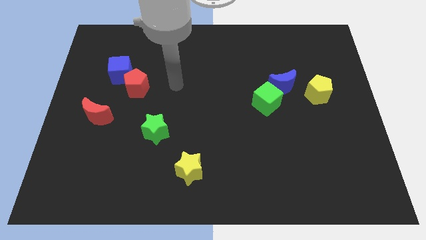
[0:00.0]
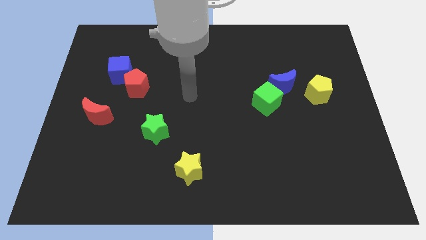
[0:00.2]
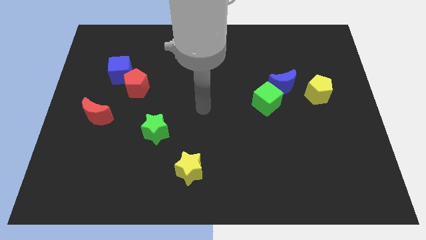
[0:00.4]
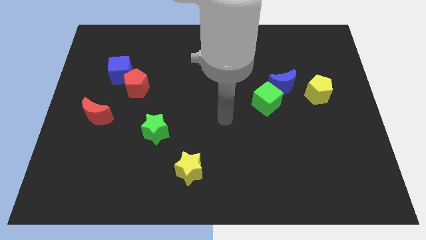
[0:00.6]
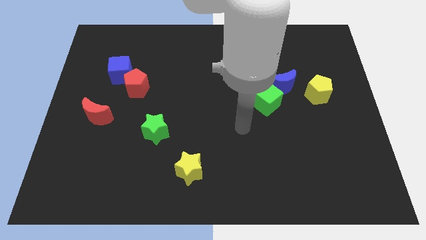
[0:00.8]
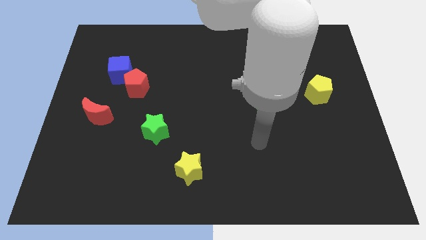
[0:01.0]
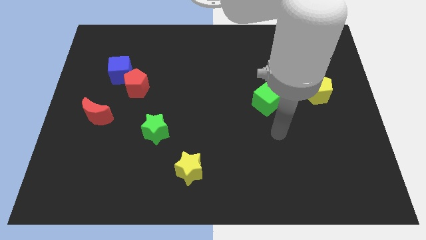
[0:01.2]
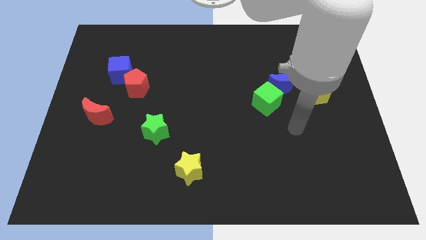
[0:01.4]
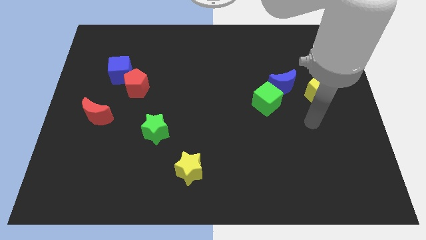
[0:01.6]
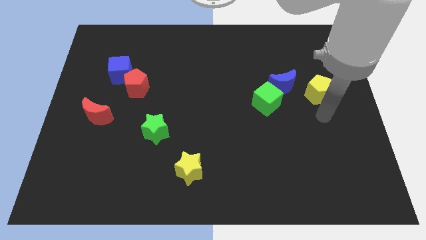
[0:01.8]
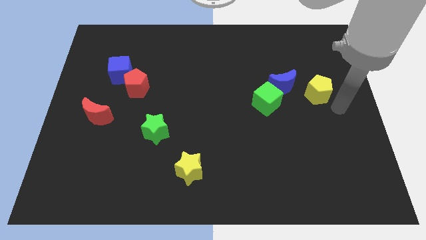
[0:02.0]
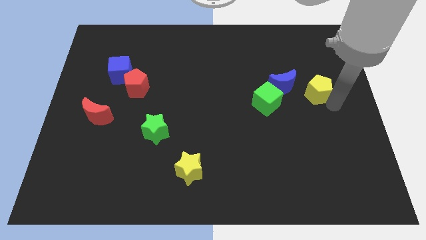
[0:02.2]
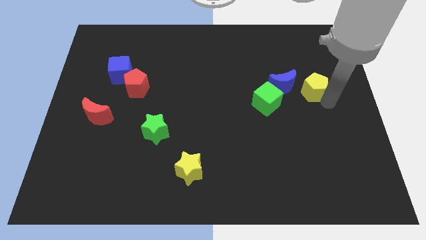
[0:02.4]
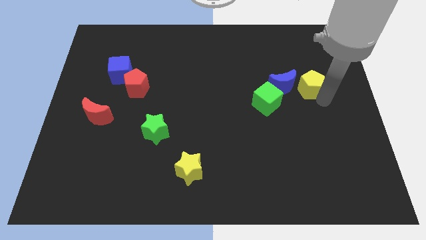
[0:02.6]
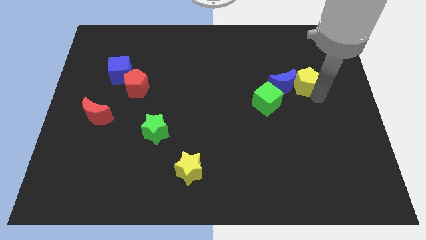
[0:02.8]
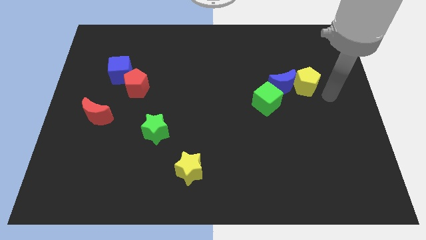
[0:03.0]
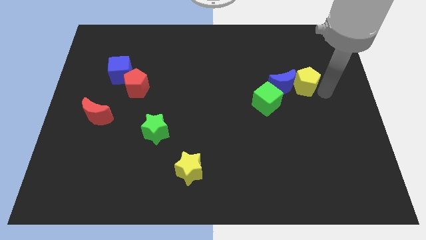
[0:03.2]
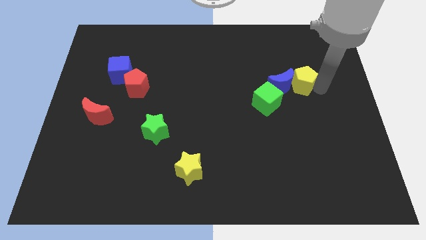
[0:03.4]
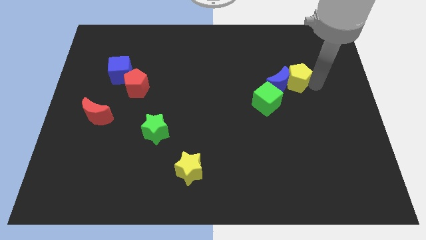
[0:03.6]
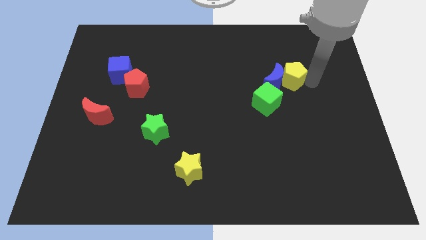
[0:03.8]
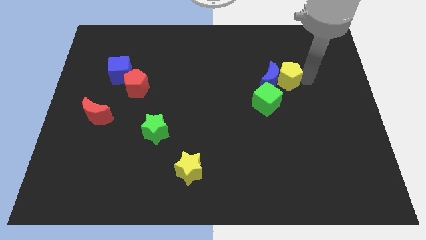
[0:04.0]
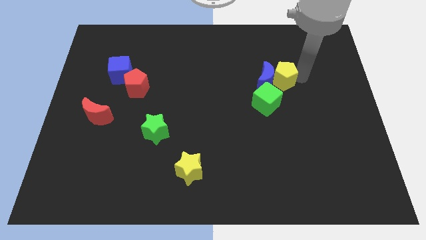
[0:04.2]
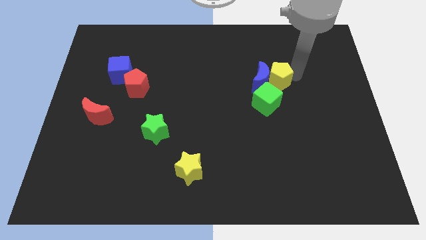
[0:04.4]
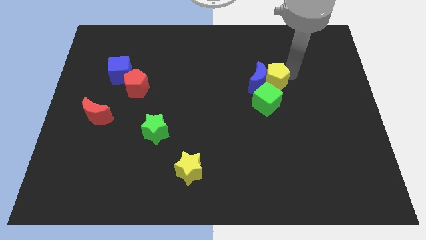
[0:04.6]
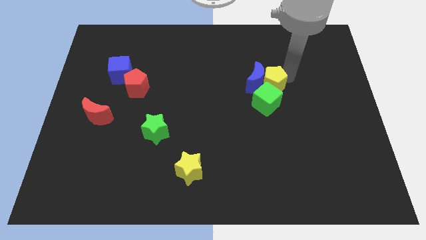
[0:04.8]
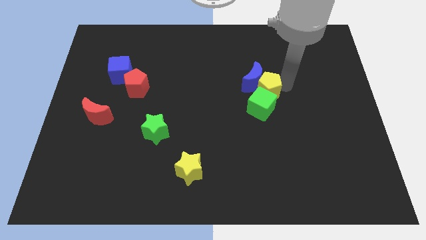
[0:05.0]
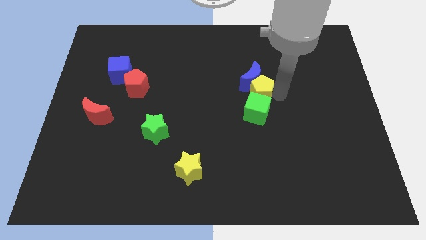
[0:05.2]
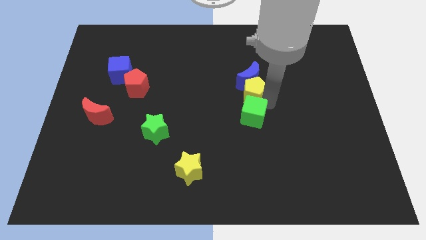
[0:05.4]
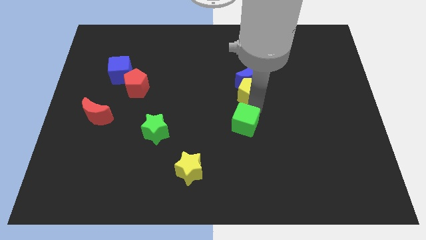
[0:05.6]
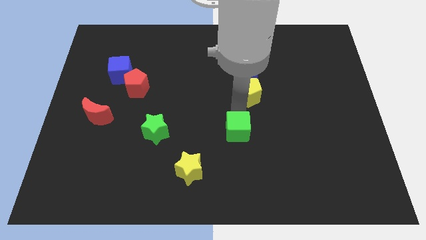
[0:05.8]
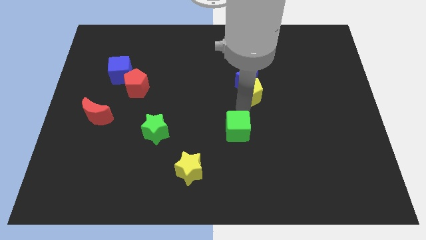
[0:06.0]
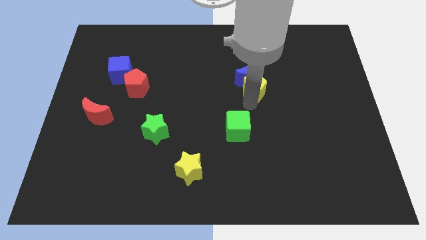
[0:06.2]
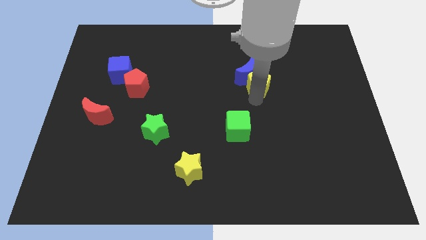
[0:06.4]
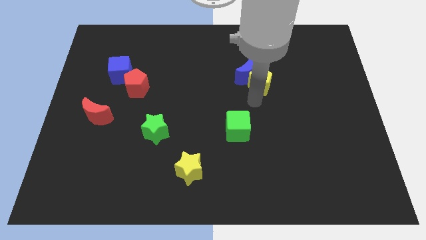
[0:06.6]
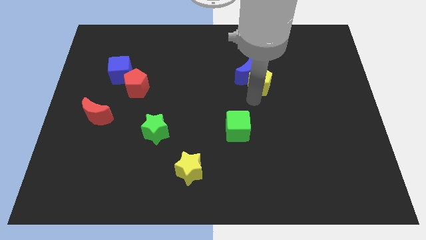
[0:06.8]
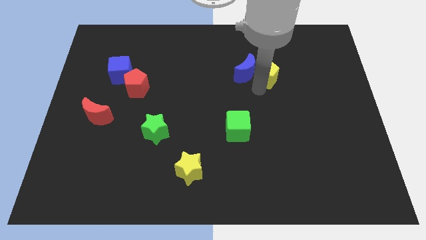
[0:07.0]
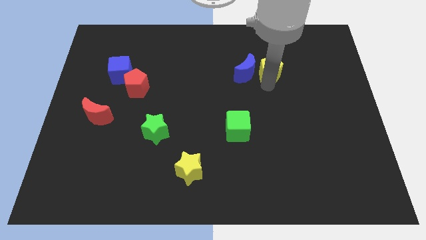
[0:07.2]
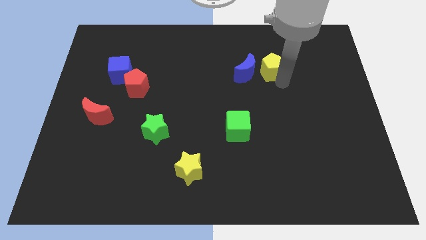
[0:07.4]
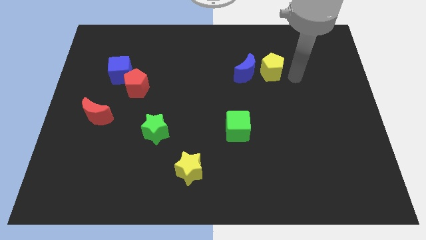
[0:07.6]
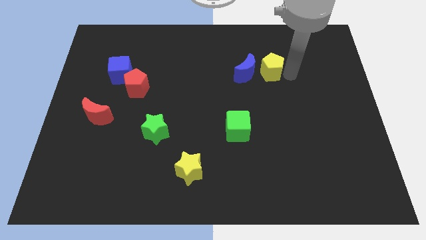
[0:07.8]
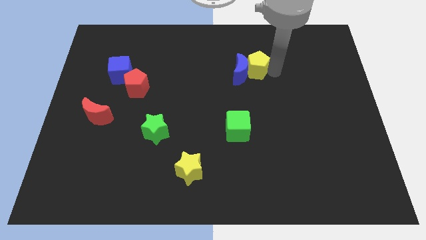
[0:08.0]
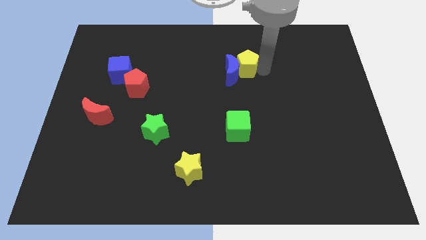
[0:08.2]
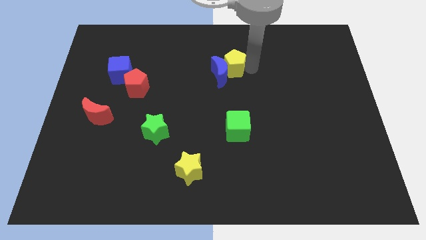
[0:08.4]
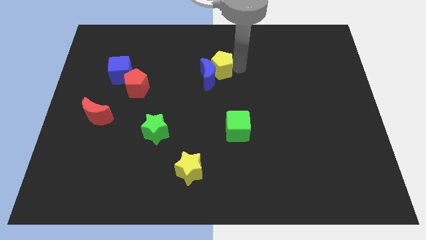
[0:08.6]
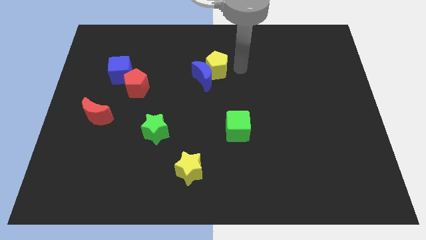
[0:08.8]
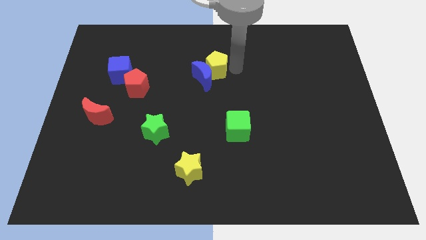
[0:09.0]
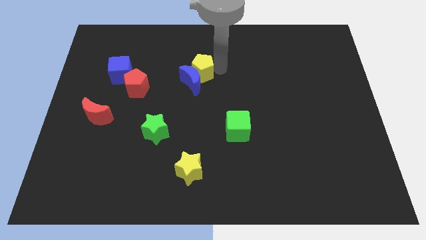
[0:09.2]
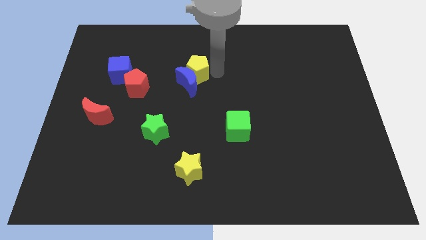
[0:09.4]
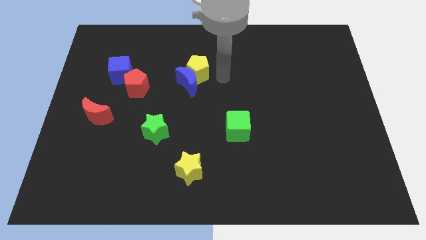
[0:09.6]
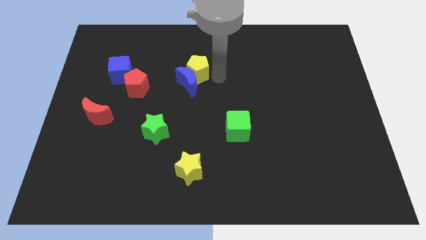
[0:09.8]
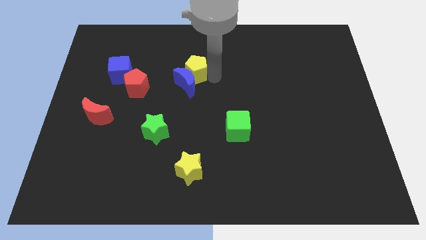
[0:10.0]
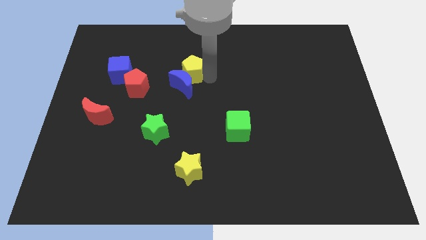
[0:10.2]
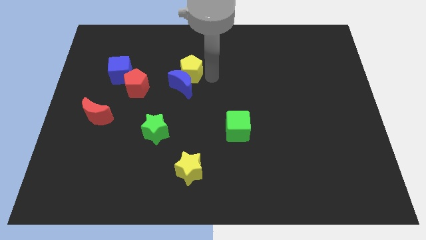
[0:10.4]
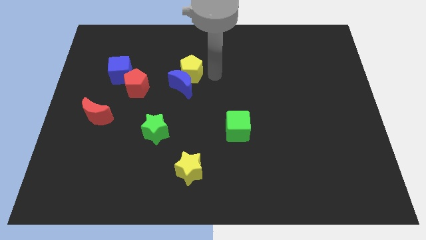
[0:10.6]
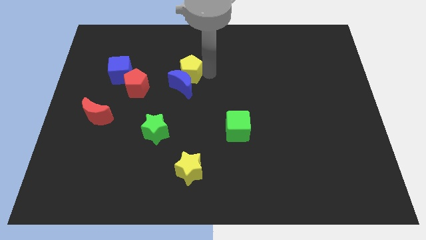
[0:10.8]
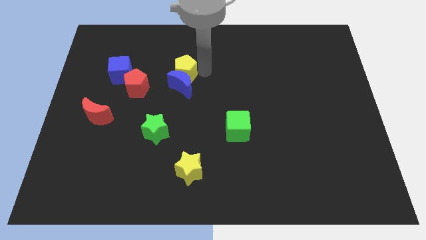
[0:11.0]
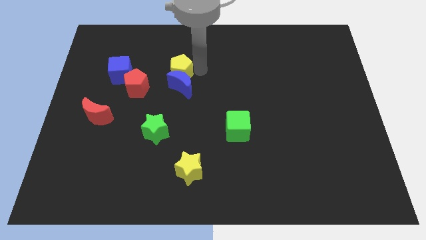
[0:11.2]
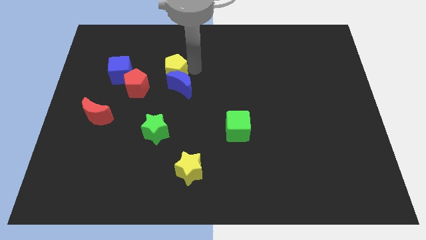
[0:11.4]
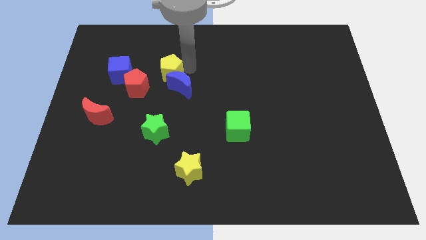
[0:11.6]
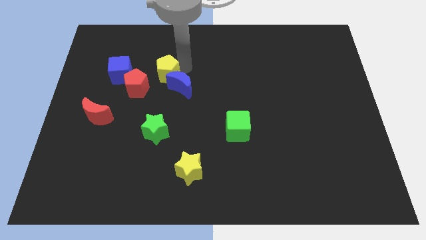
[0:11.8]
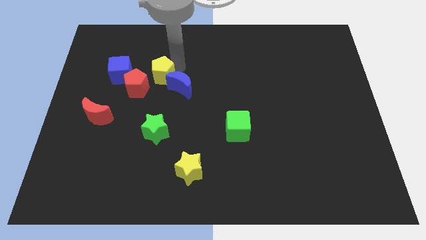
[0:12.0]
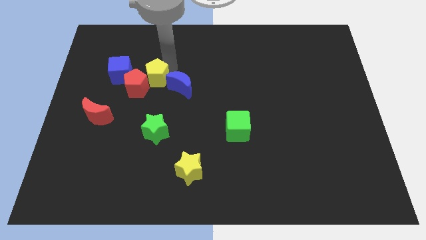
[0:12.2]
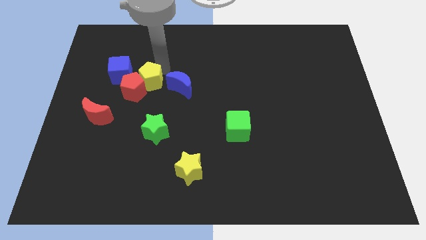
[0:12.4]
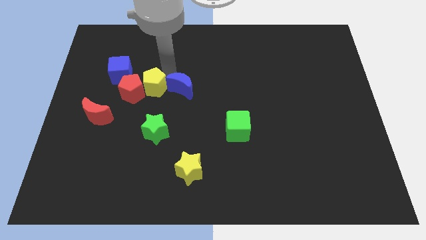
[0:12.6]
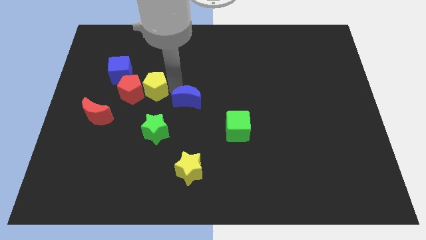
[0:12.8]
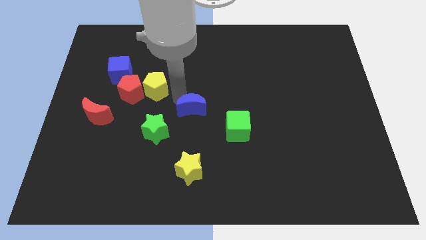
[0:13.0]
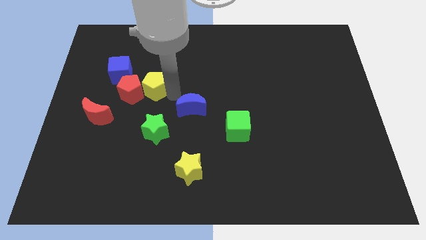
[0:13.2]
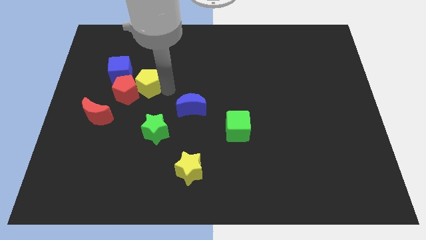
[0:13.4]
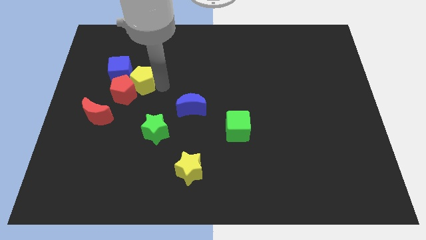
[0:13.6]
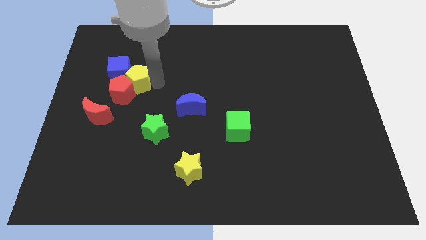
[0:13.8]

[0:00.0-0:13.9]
push the yellow pentagon next to the blue cube

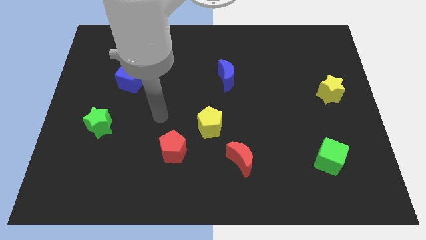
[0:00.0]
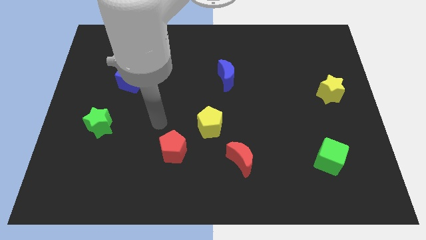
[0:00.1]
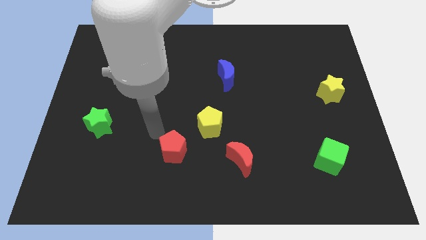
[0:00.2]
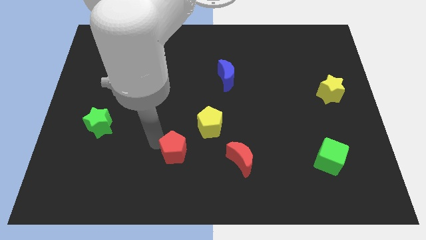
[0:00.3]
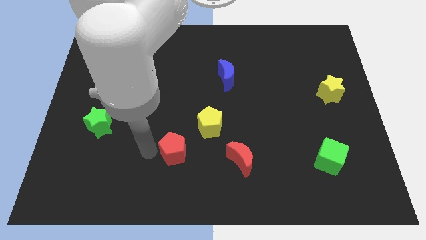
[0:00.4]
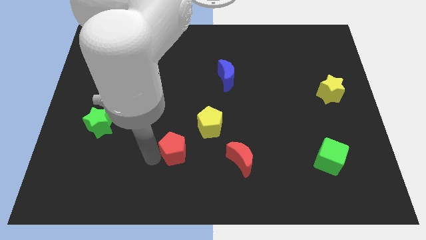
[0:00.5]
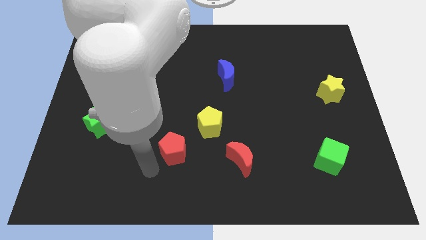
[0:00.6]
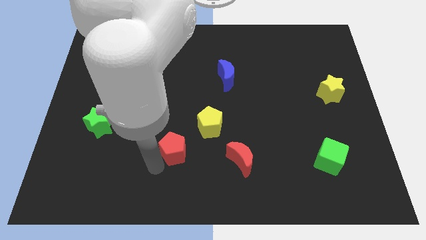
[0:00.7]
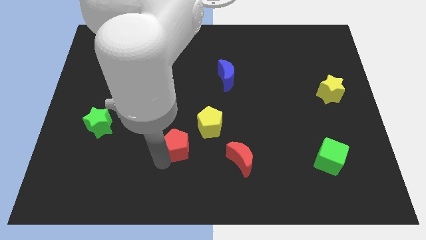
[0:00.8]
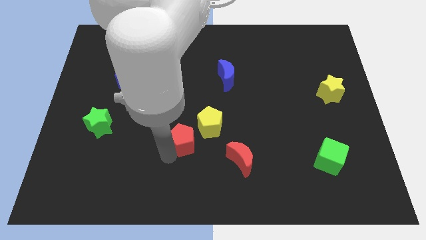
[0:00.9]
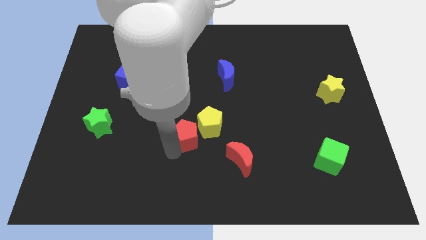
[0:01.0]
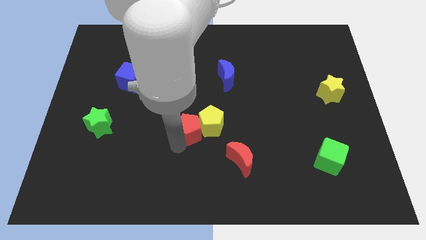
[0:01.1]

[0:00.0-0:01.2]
move the red pentagon close to the yellow pentagon
